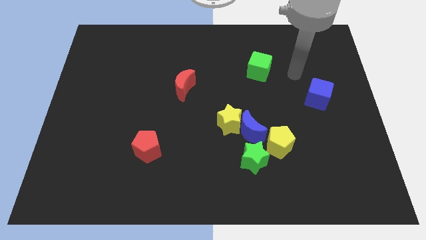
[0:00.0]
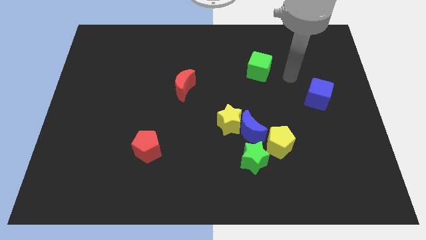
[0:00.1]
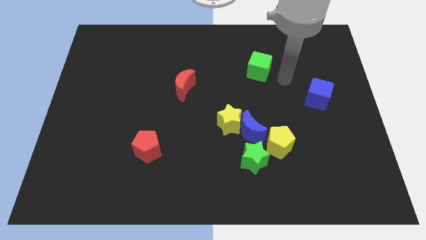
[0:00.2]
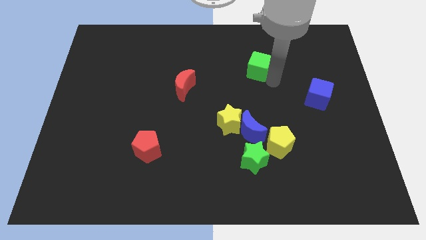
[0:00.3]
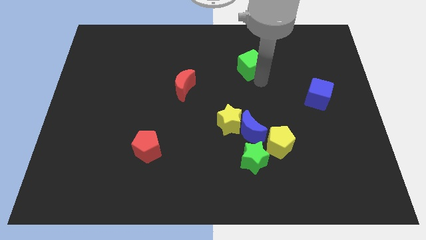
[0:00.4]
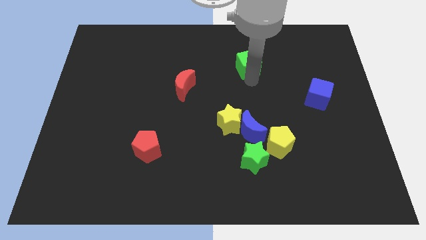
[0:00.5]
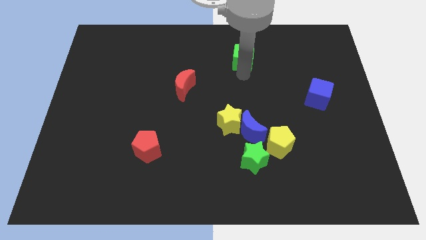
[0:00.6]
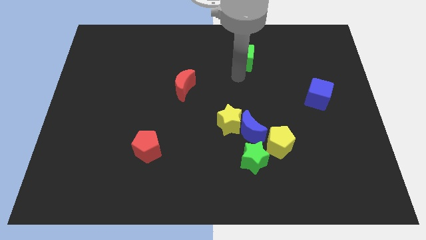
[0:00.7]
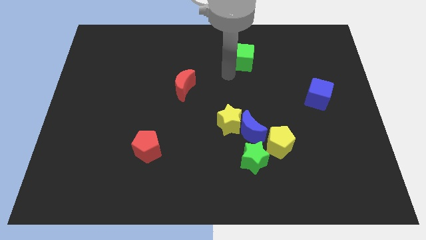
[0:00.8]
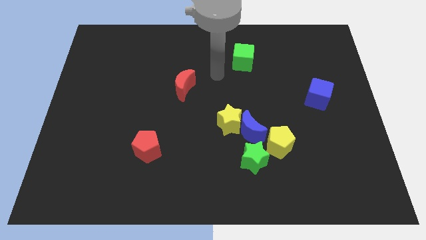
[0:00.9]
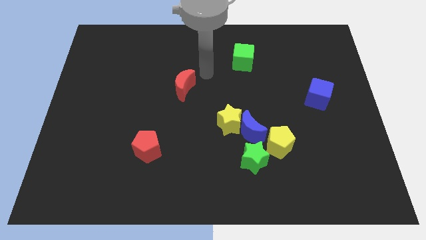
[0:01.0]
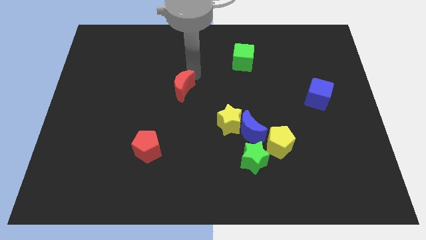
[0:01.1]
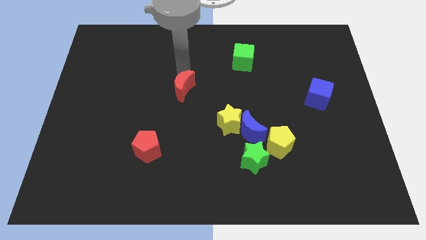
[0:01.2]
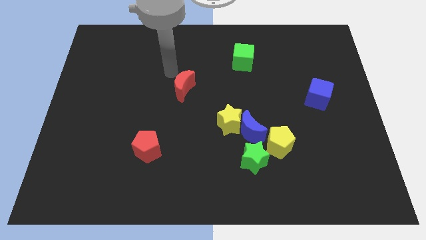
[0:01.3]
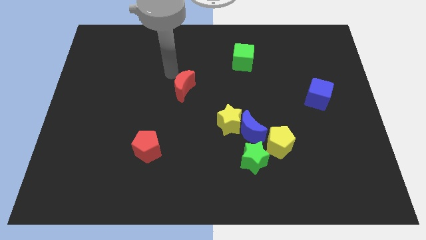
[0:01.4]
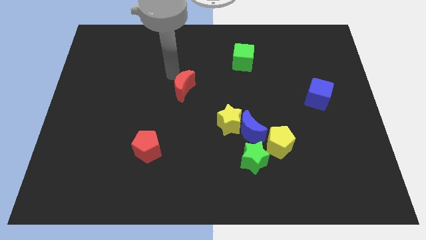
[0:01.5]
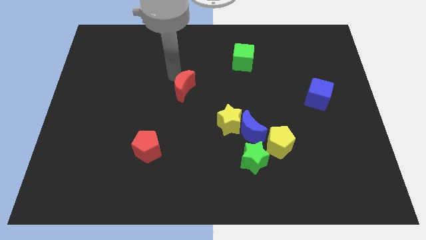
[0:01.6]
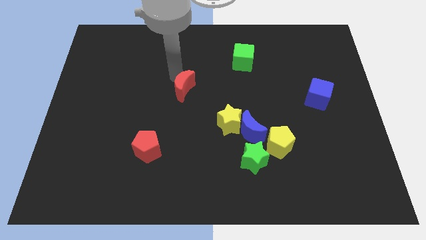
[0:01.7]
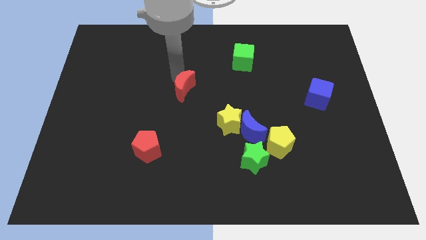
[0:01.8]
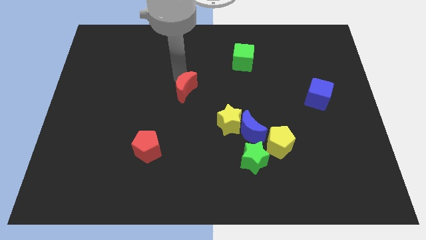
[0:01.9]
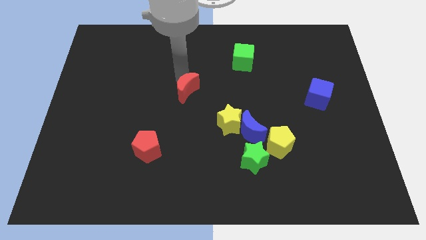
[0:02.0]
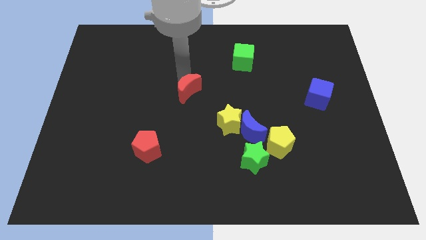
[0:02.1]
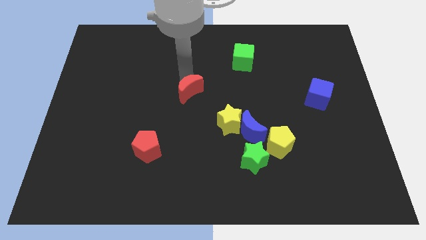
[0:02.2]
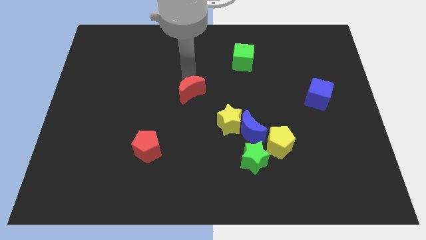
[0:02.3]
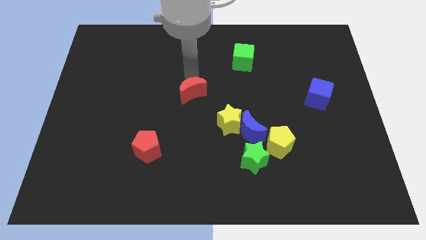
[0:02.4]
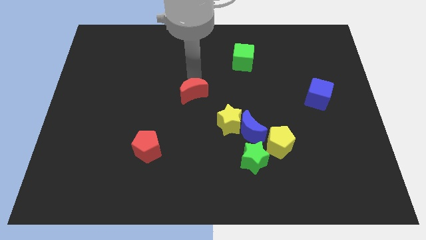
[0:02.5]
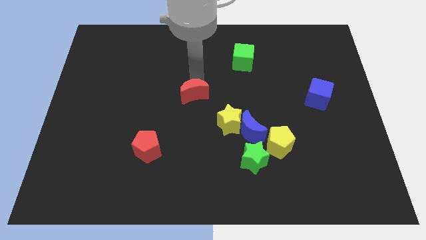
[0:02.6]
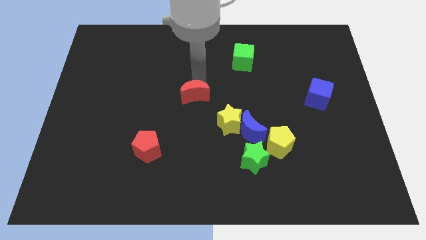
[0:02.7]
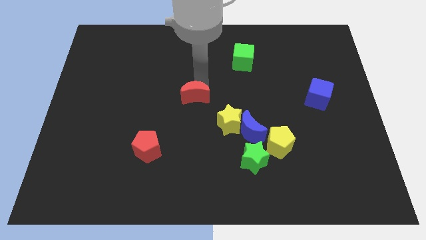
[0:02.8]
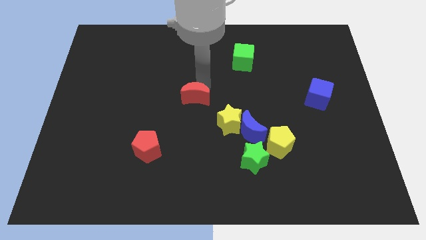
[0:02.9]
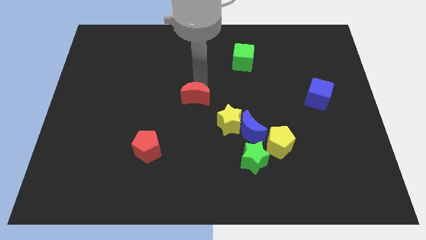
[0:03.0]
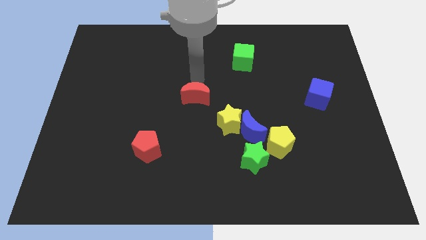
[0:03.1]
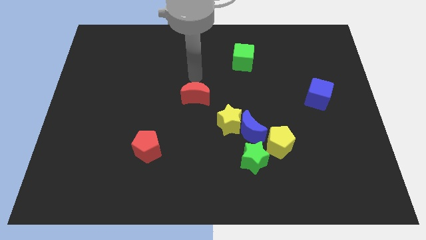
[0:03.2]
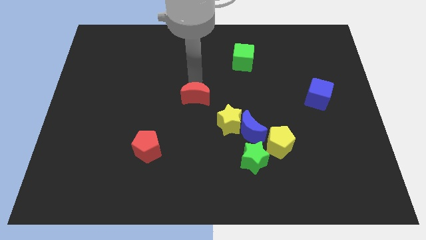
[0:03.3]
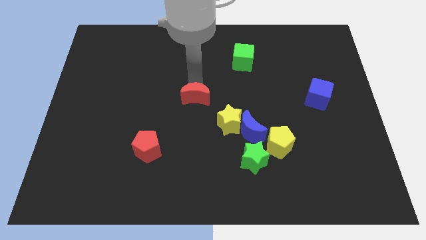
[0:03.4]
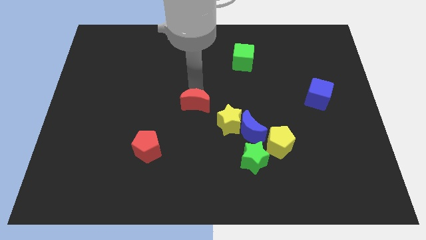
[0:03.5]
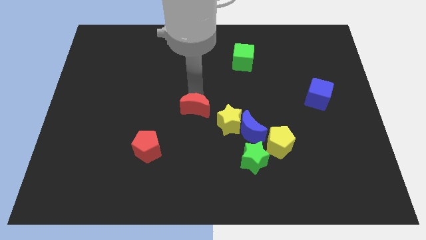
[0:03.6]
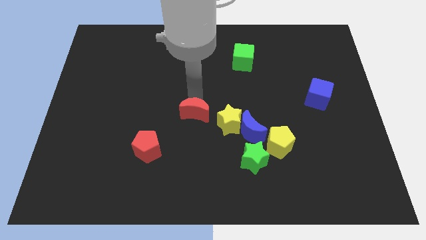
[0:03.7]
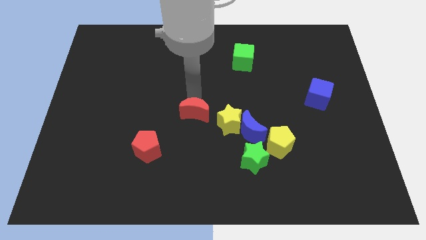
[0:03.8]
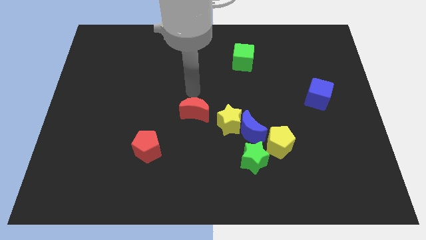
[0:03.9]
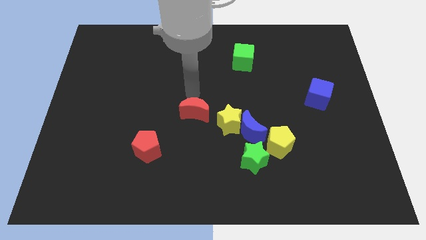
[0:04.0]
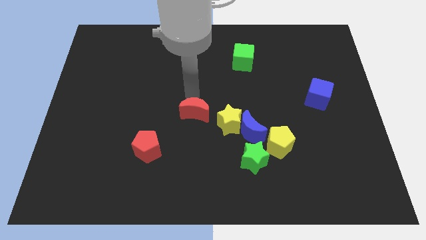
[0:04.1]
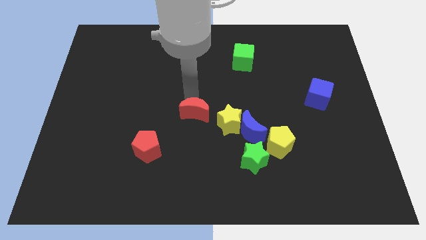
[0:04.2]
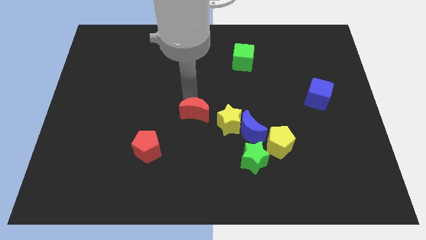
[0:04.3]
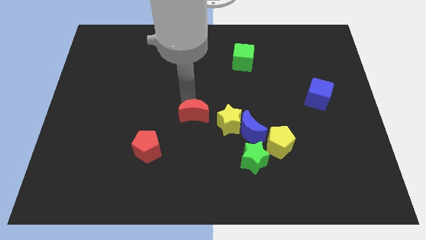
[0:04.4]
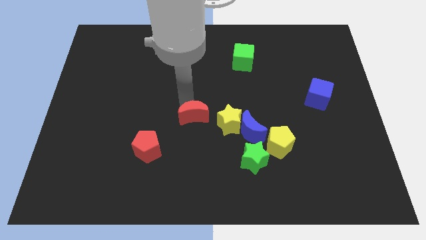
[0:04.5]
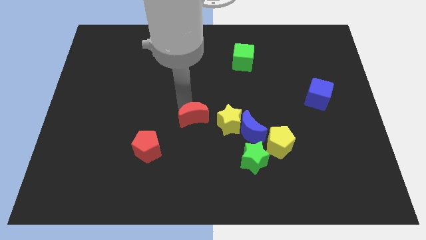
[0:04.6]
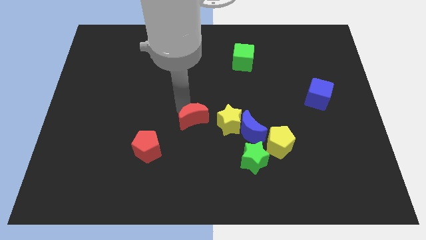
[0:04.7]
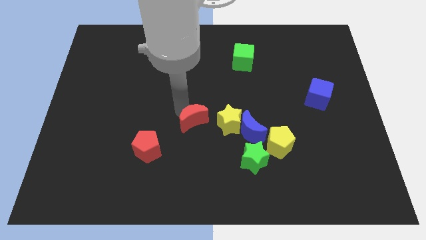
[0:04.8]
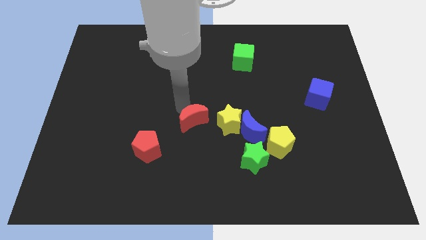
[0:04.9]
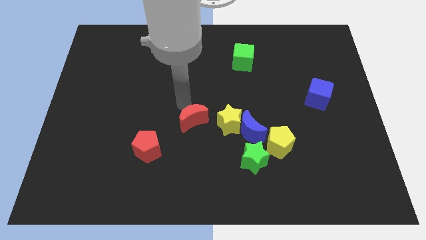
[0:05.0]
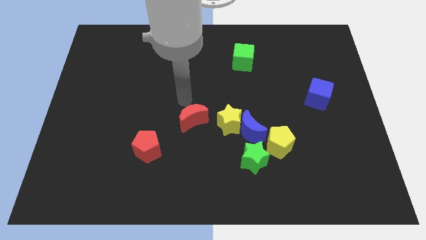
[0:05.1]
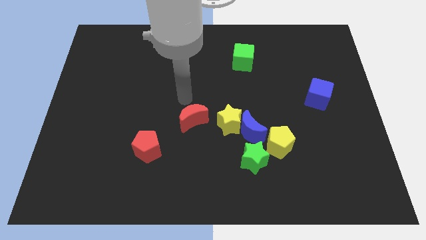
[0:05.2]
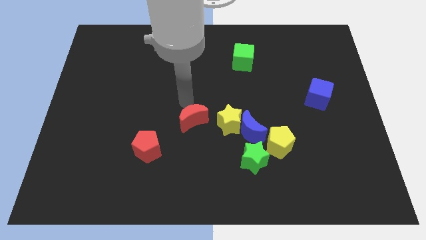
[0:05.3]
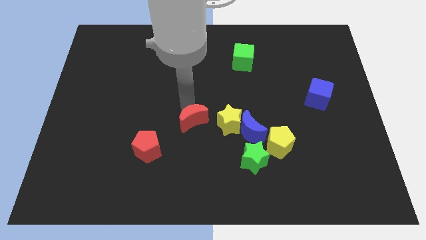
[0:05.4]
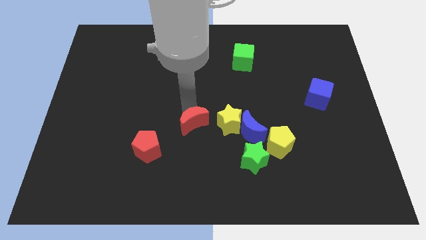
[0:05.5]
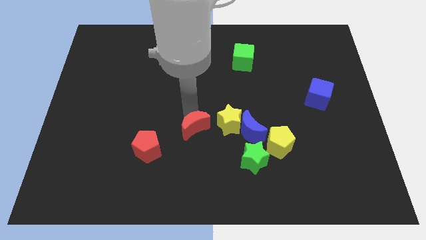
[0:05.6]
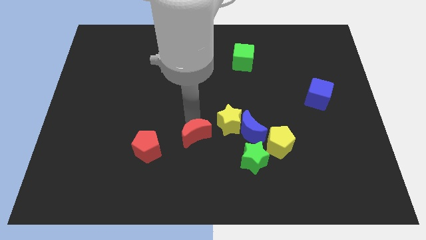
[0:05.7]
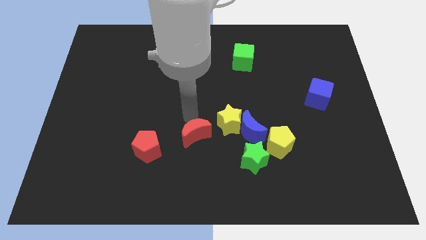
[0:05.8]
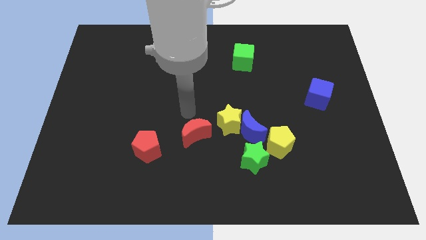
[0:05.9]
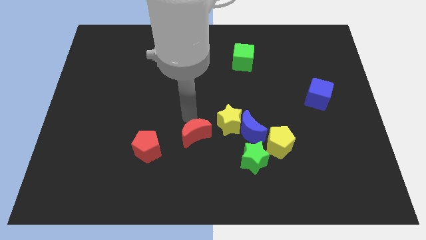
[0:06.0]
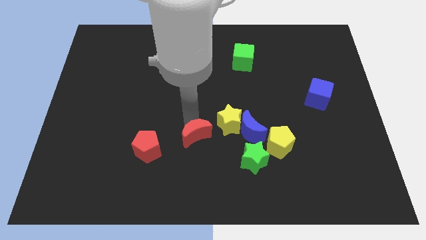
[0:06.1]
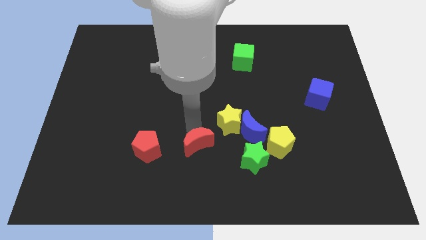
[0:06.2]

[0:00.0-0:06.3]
push the red moon to the left side of the green star

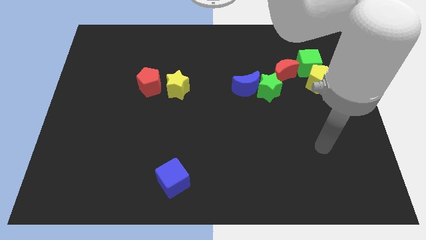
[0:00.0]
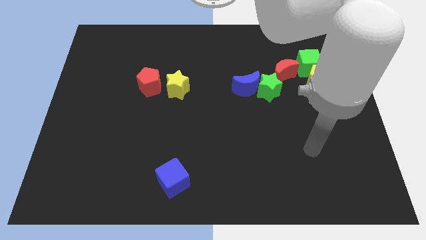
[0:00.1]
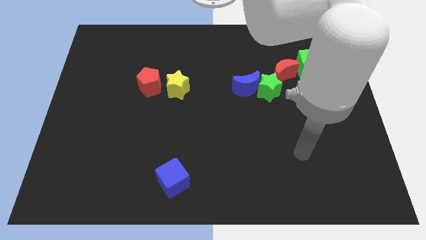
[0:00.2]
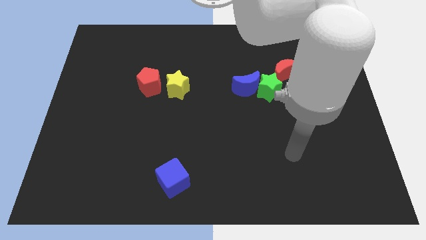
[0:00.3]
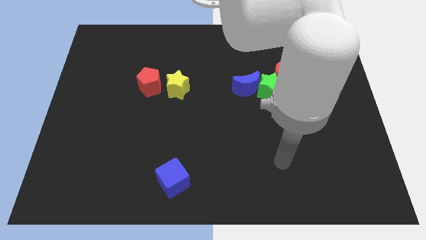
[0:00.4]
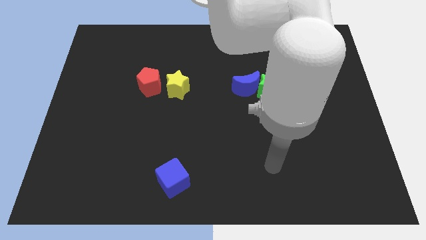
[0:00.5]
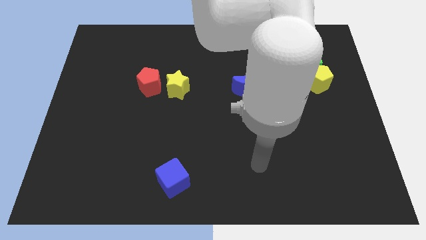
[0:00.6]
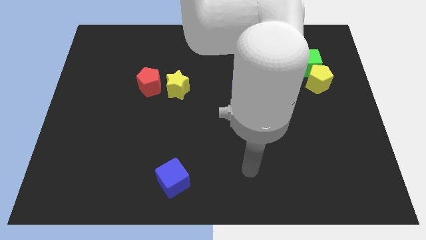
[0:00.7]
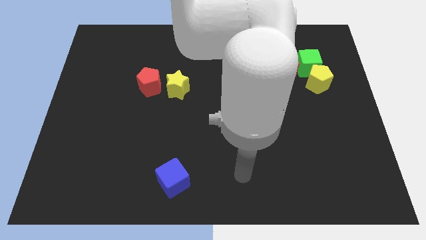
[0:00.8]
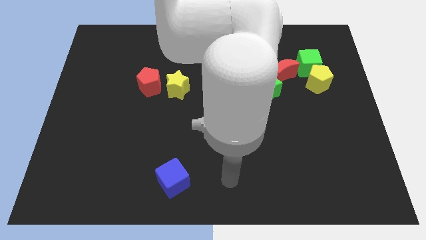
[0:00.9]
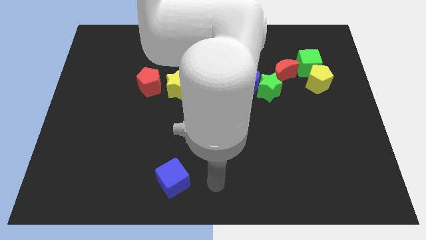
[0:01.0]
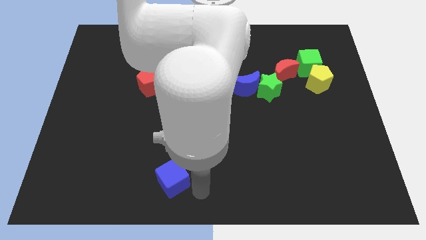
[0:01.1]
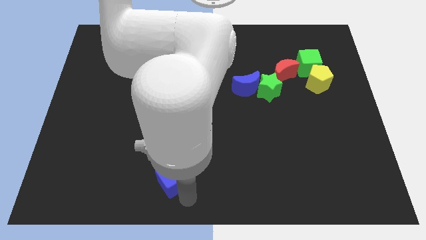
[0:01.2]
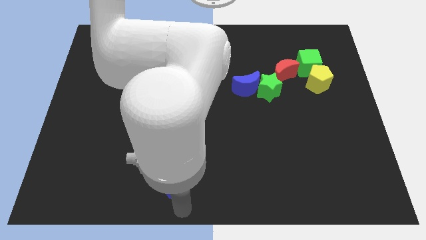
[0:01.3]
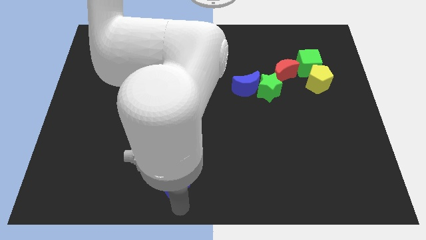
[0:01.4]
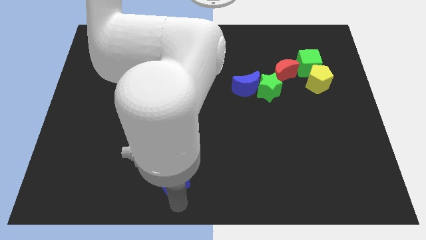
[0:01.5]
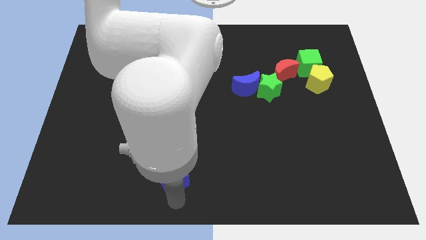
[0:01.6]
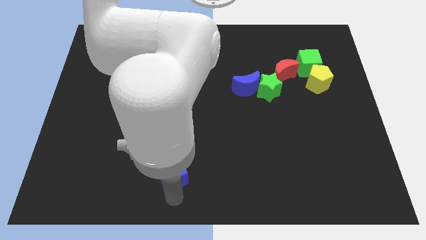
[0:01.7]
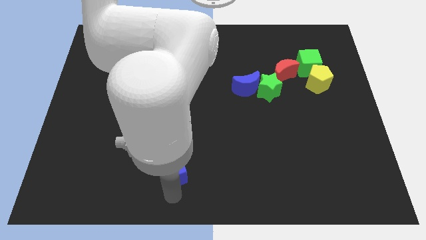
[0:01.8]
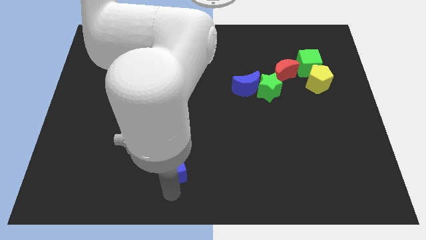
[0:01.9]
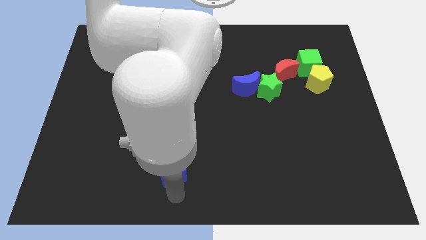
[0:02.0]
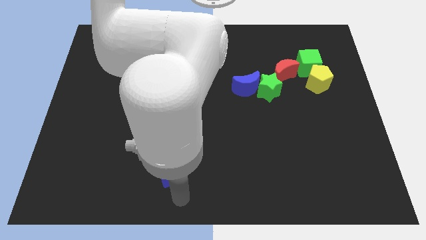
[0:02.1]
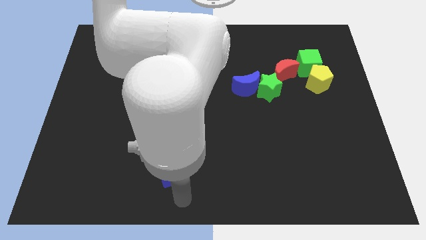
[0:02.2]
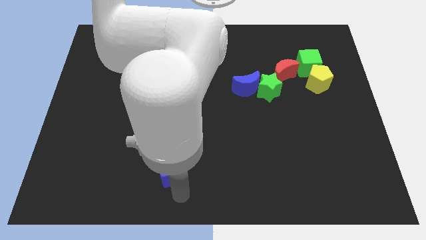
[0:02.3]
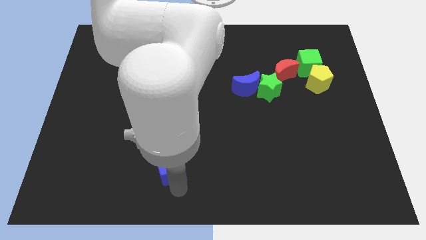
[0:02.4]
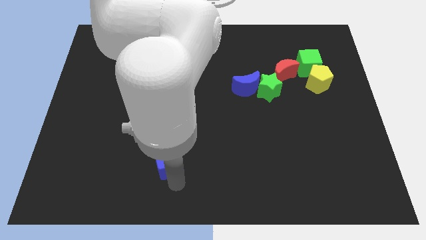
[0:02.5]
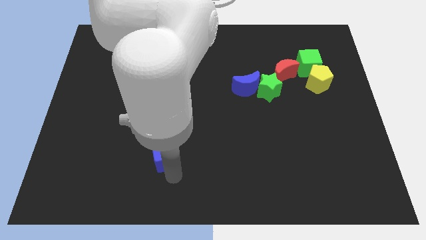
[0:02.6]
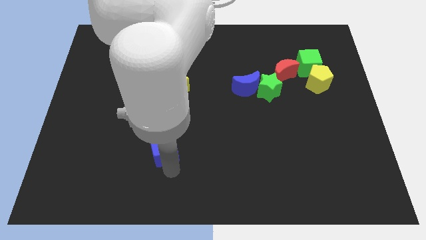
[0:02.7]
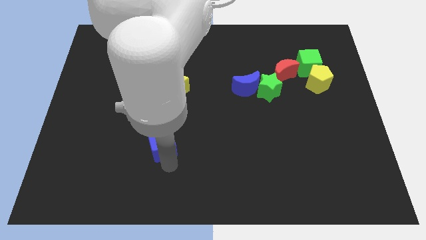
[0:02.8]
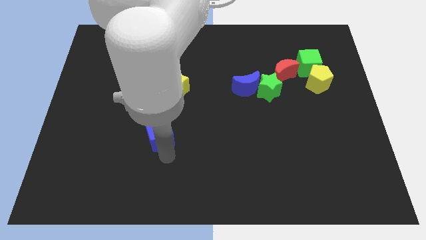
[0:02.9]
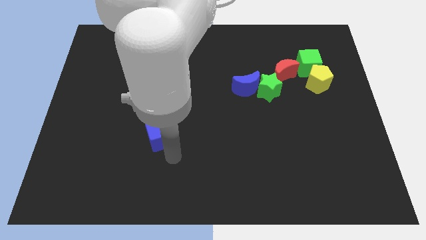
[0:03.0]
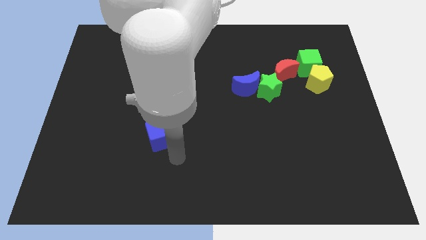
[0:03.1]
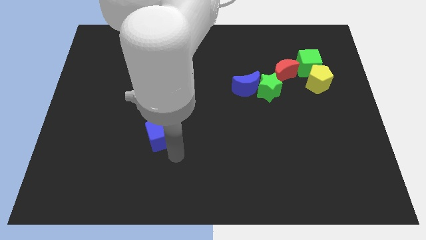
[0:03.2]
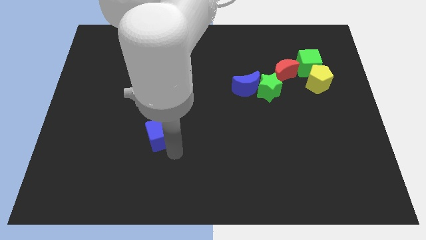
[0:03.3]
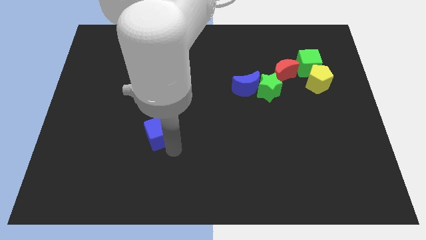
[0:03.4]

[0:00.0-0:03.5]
move the blue cube to the bottom side of the red pentagon
